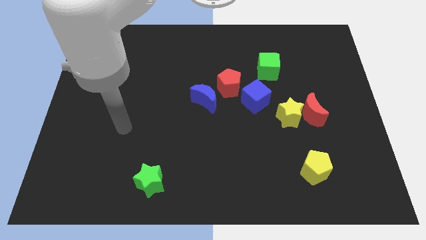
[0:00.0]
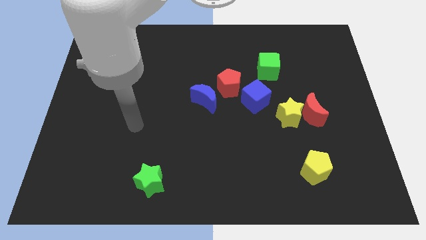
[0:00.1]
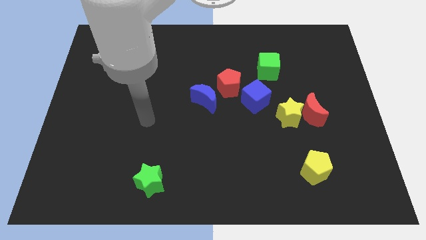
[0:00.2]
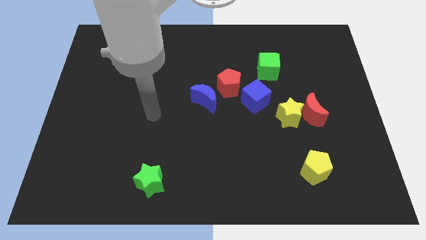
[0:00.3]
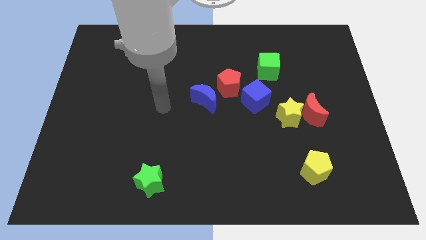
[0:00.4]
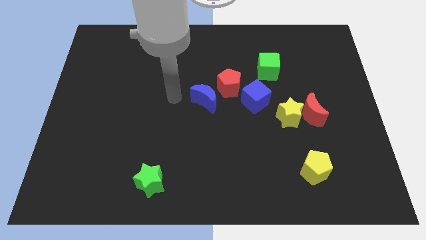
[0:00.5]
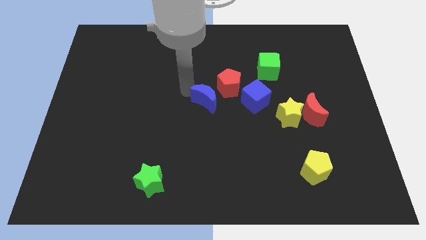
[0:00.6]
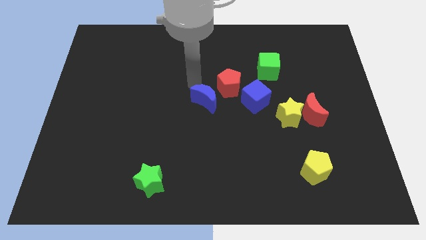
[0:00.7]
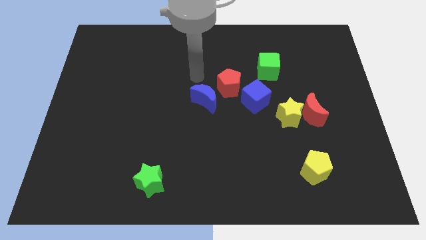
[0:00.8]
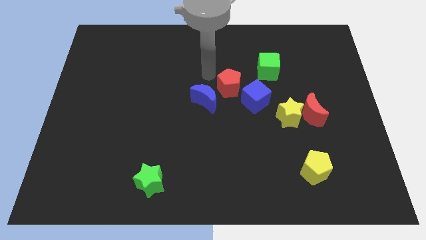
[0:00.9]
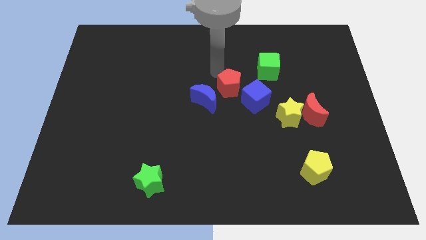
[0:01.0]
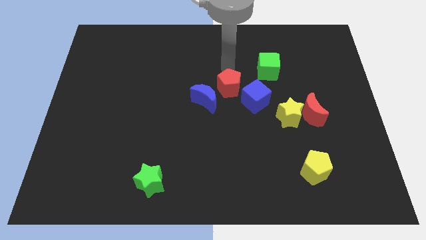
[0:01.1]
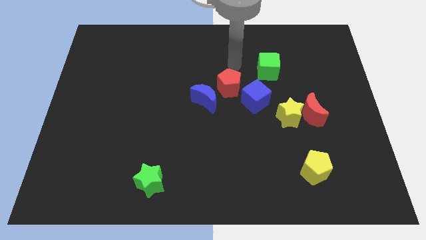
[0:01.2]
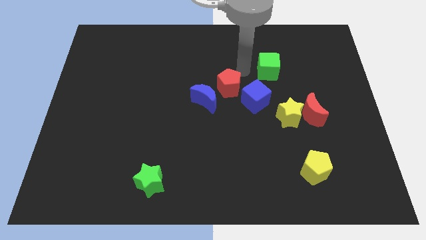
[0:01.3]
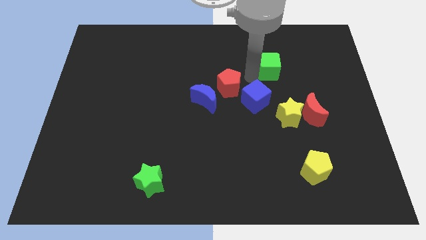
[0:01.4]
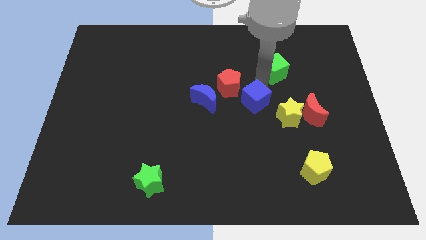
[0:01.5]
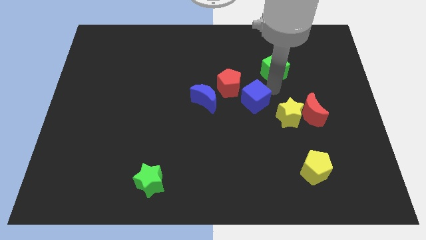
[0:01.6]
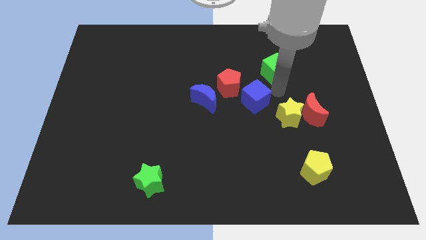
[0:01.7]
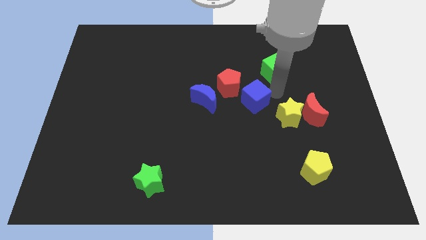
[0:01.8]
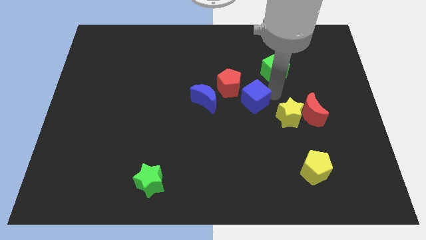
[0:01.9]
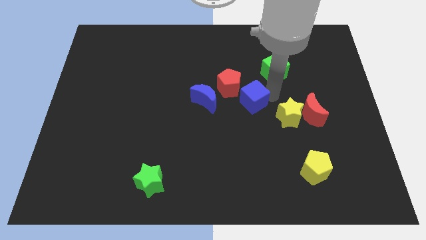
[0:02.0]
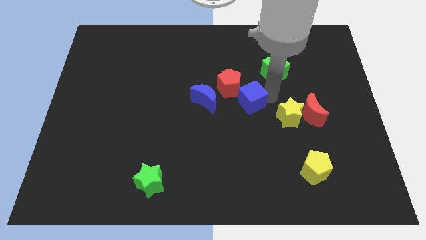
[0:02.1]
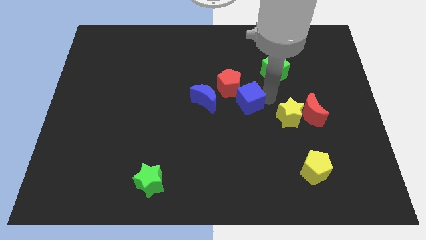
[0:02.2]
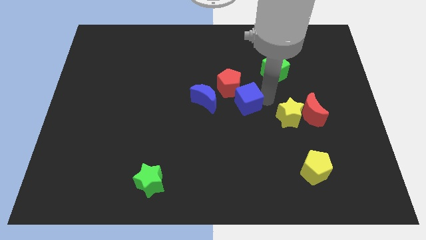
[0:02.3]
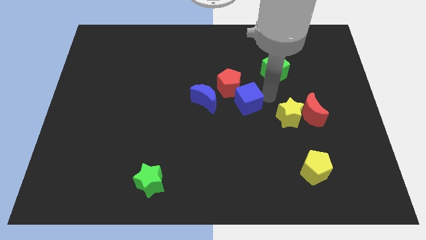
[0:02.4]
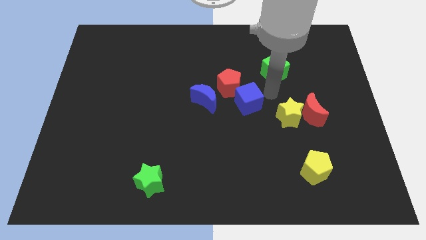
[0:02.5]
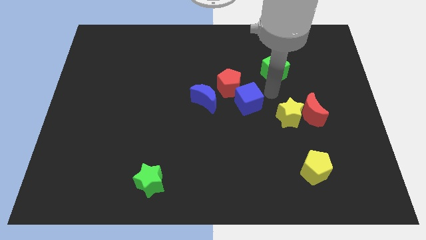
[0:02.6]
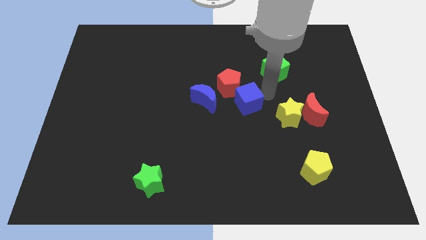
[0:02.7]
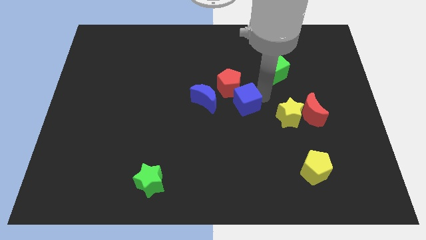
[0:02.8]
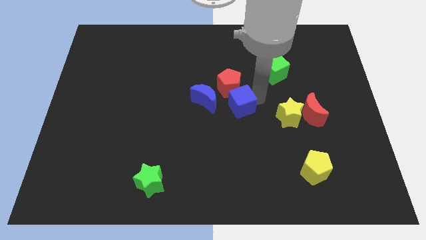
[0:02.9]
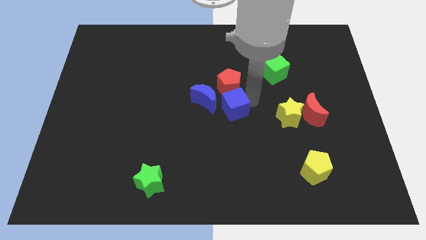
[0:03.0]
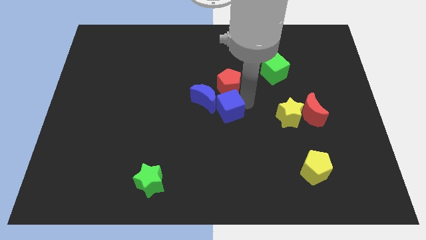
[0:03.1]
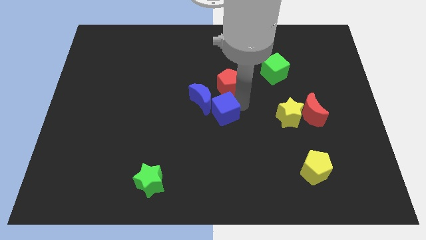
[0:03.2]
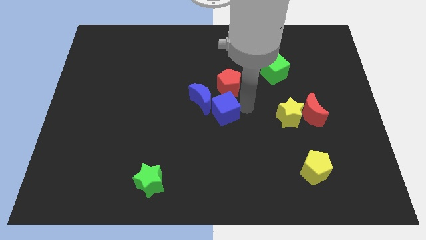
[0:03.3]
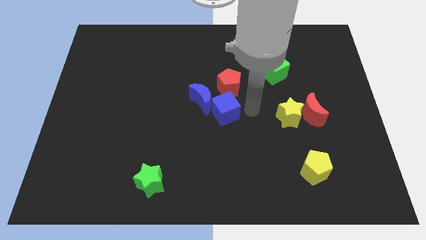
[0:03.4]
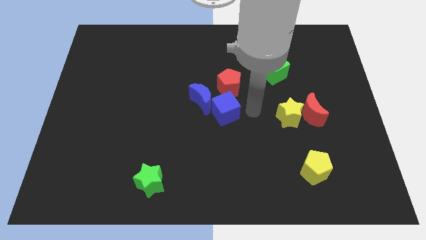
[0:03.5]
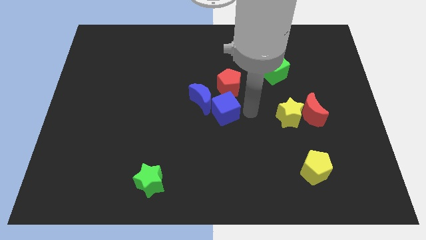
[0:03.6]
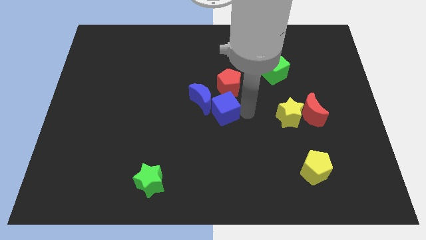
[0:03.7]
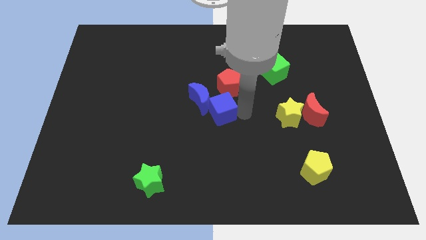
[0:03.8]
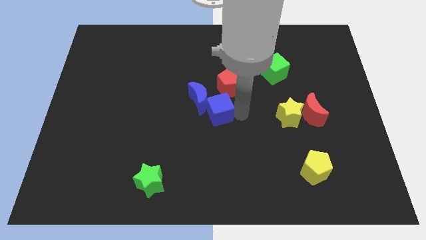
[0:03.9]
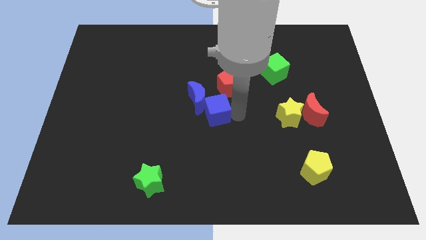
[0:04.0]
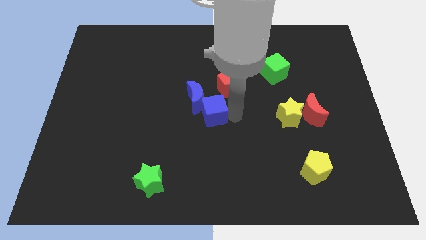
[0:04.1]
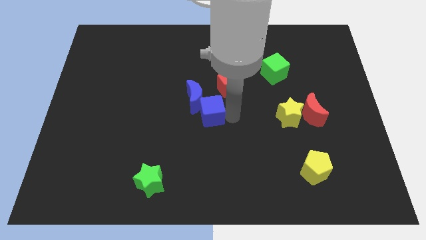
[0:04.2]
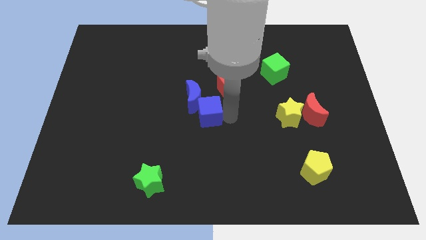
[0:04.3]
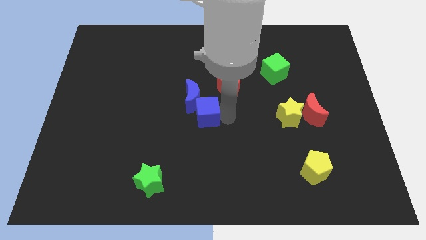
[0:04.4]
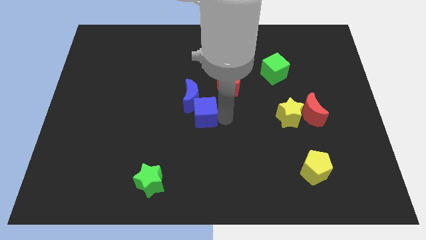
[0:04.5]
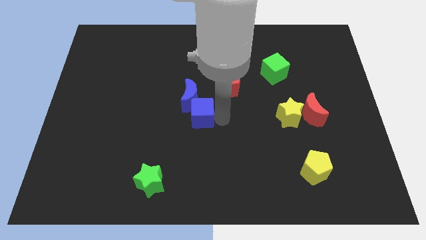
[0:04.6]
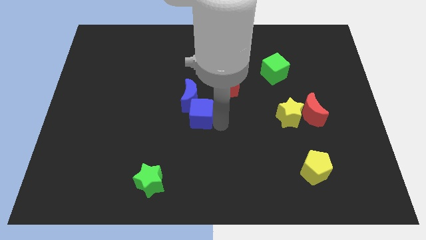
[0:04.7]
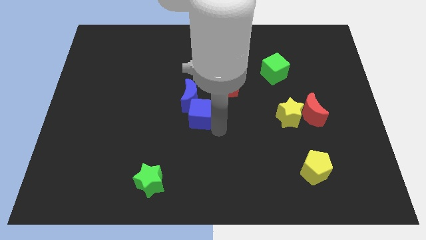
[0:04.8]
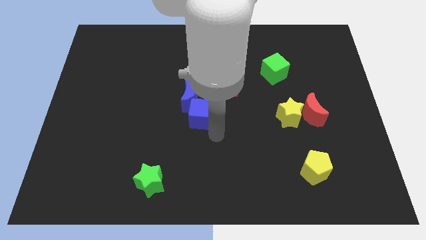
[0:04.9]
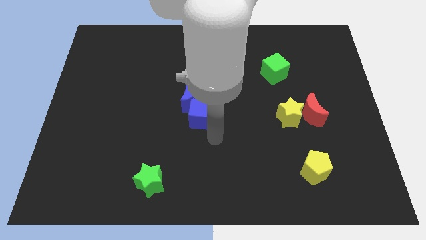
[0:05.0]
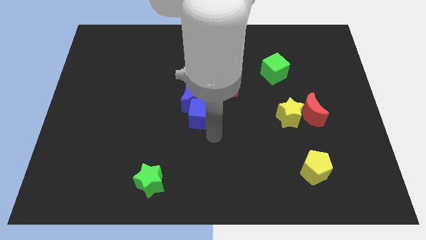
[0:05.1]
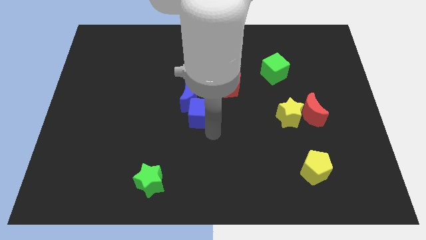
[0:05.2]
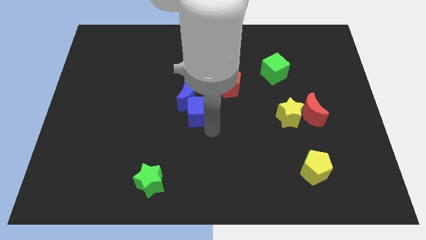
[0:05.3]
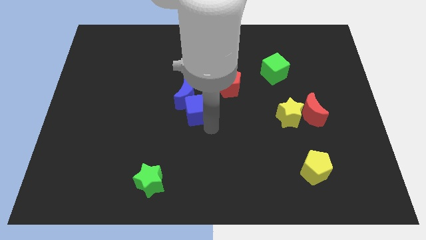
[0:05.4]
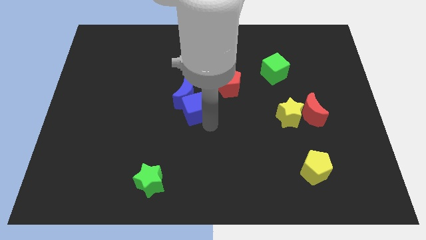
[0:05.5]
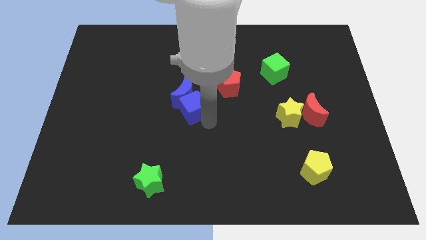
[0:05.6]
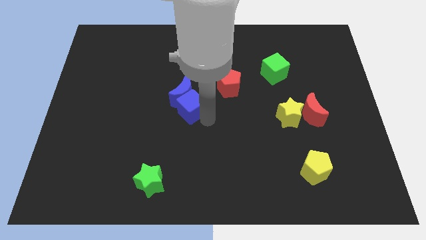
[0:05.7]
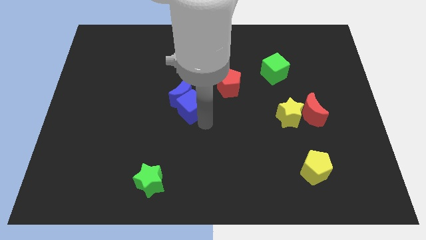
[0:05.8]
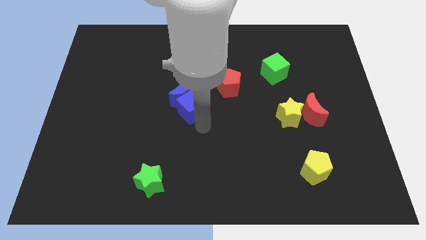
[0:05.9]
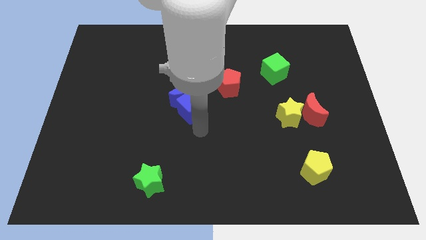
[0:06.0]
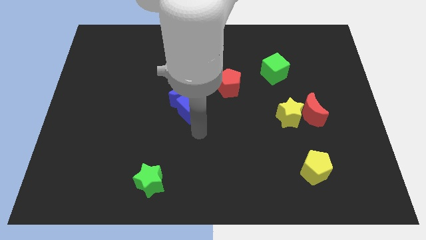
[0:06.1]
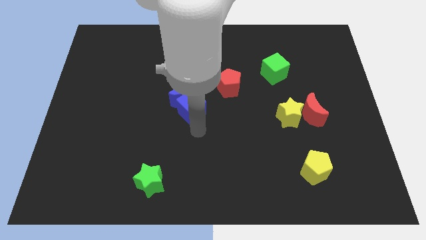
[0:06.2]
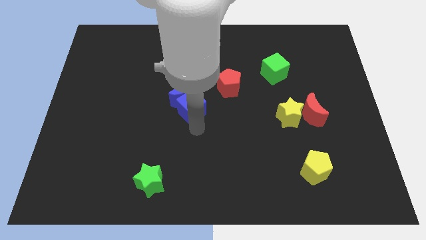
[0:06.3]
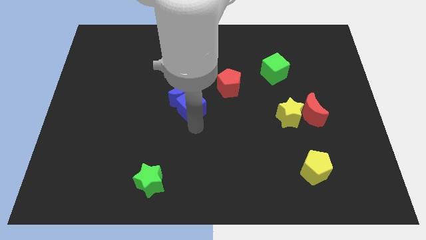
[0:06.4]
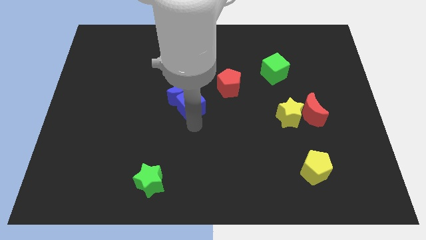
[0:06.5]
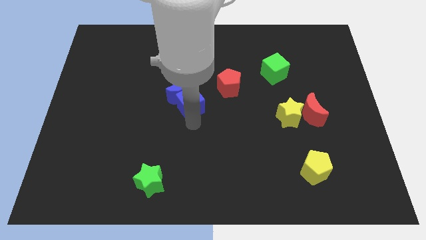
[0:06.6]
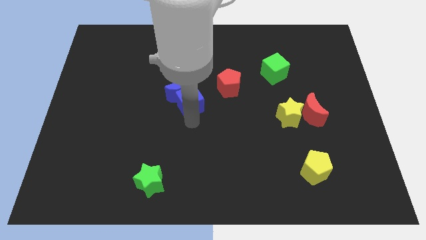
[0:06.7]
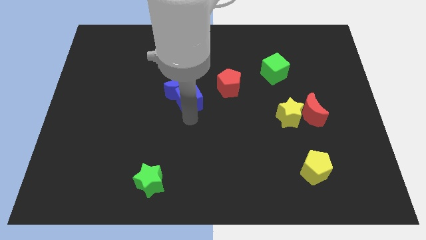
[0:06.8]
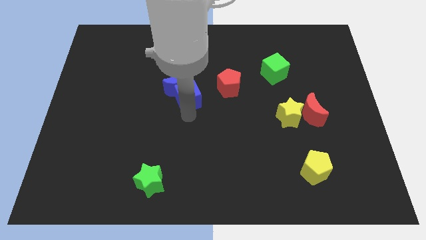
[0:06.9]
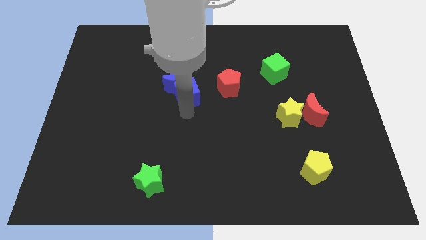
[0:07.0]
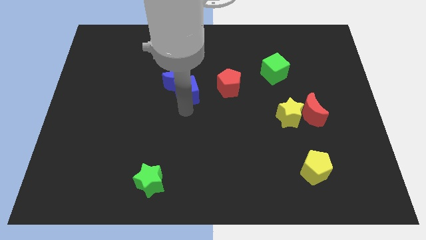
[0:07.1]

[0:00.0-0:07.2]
slide the blue cube a bit upwards and then left

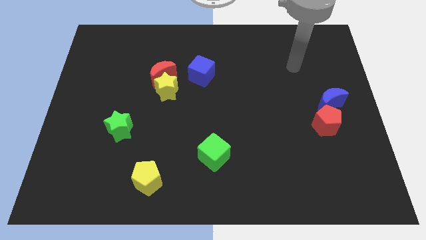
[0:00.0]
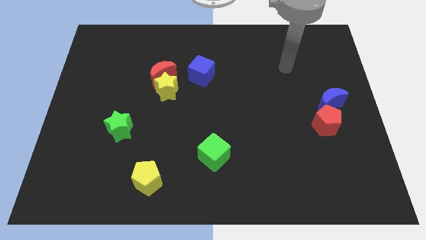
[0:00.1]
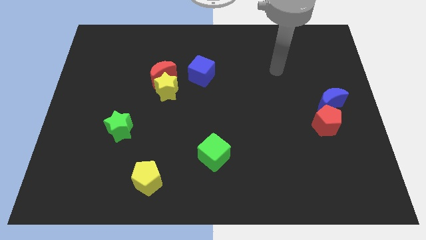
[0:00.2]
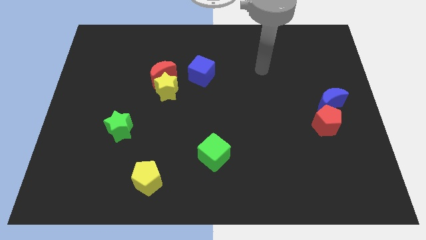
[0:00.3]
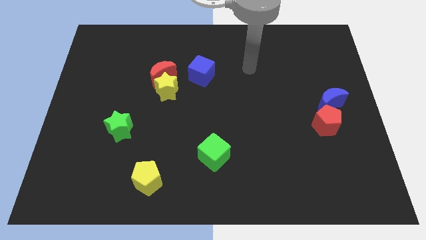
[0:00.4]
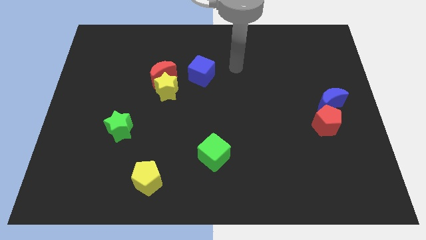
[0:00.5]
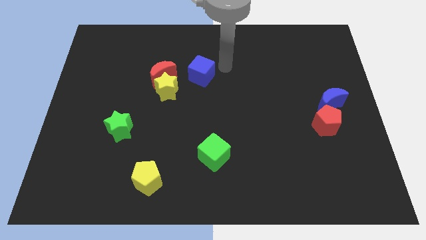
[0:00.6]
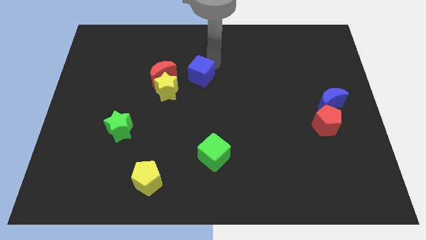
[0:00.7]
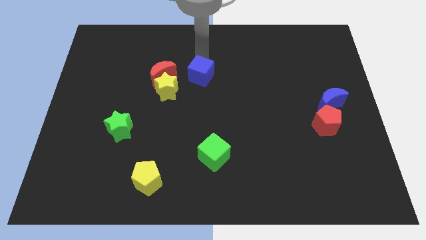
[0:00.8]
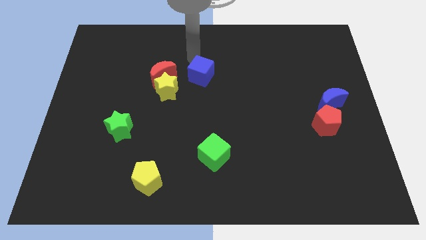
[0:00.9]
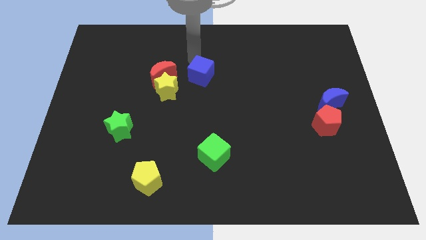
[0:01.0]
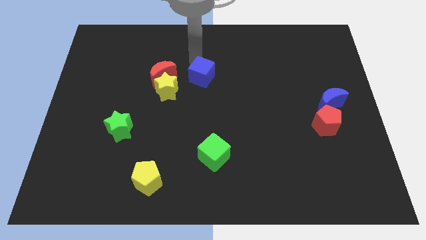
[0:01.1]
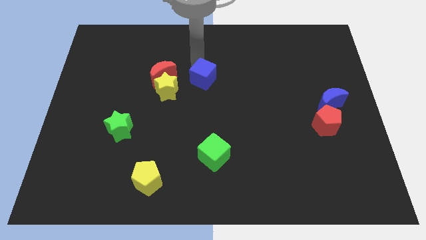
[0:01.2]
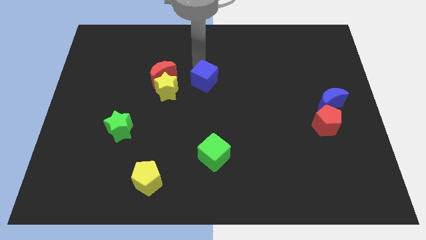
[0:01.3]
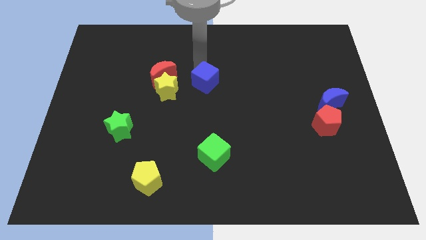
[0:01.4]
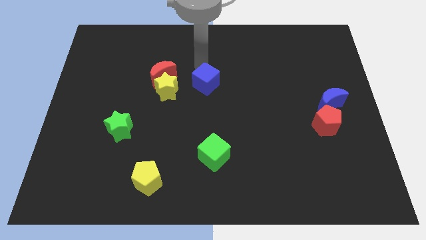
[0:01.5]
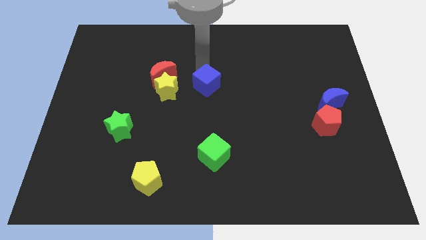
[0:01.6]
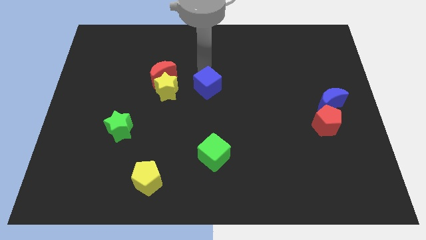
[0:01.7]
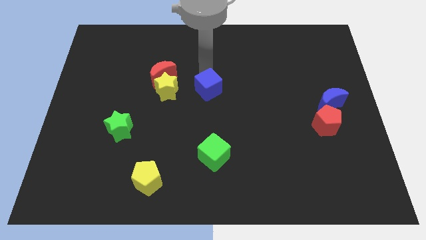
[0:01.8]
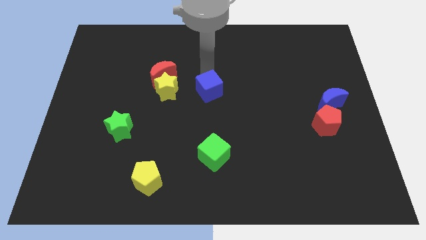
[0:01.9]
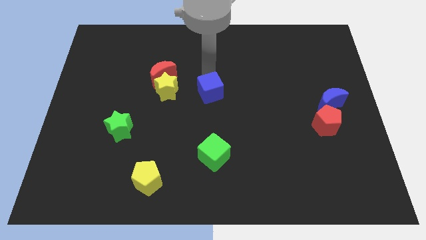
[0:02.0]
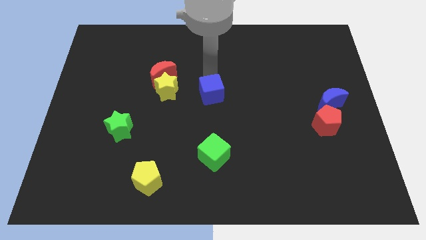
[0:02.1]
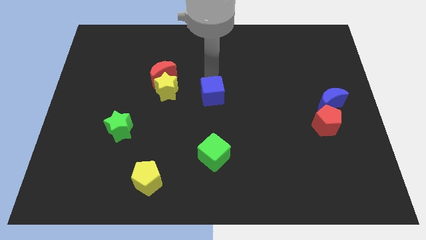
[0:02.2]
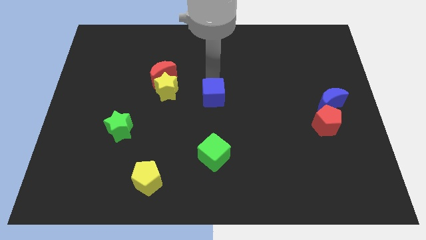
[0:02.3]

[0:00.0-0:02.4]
push the blue cube slightly down
